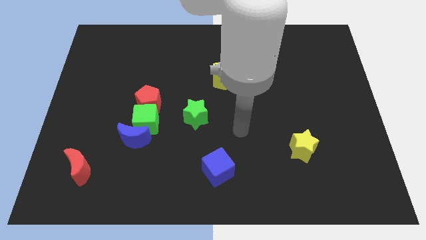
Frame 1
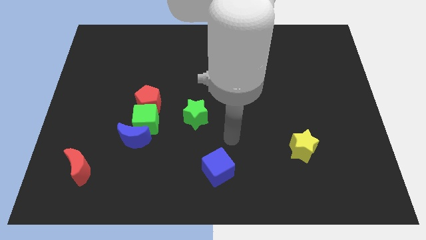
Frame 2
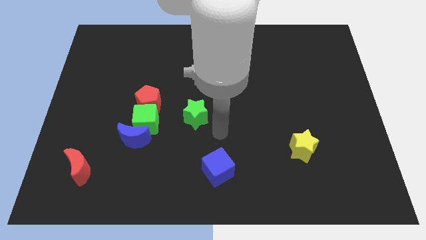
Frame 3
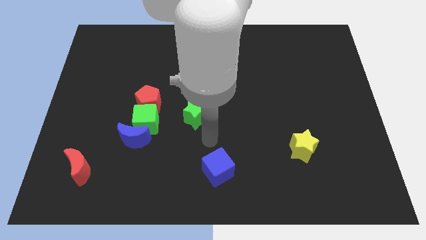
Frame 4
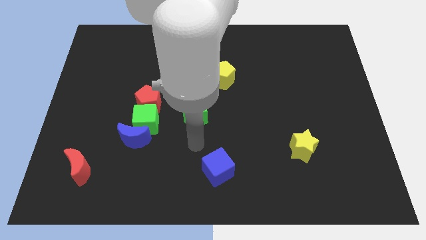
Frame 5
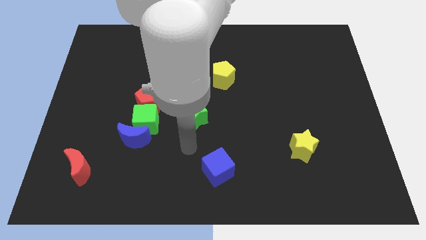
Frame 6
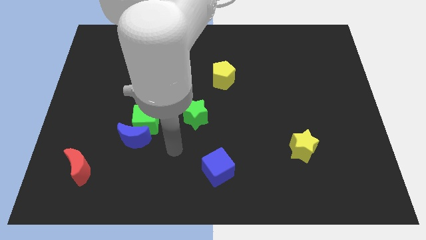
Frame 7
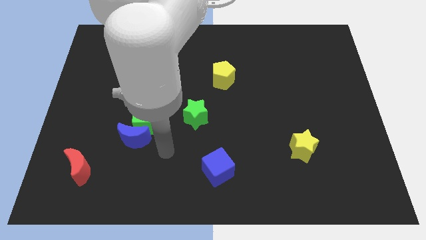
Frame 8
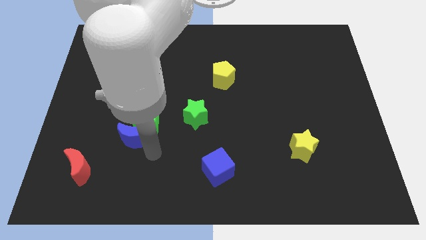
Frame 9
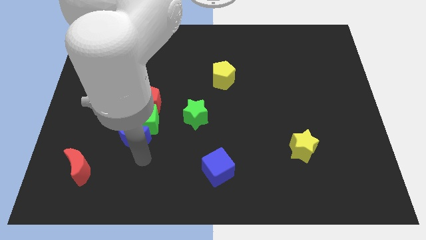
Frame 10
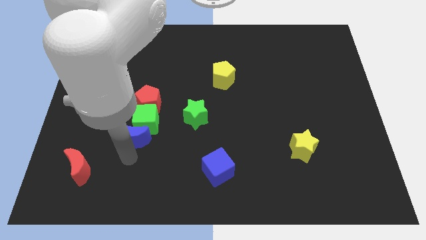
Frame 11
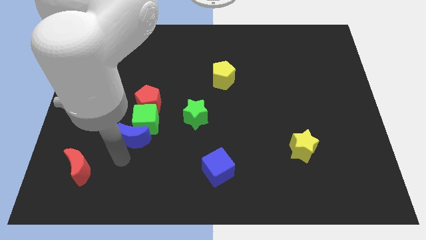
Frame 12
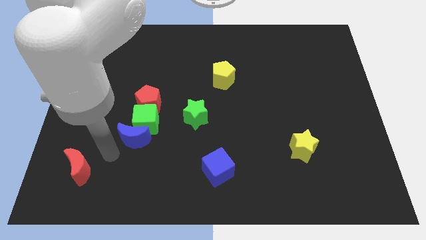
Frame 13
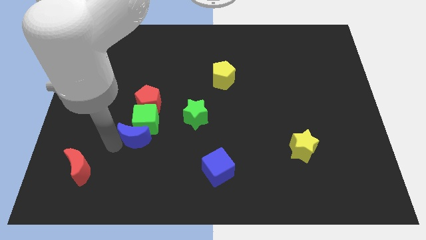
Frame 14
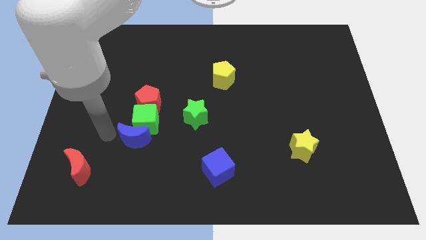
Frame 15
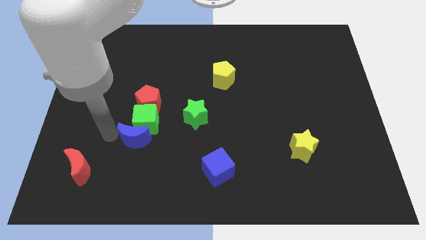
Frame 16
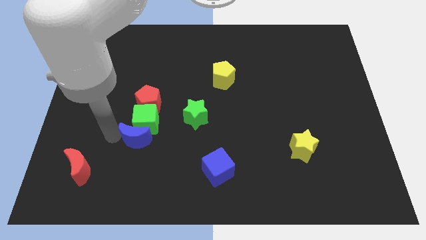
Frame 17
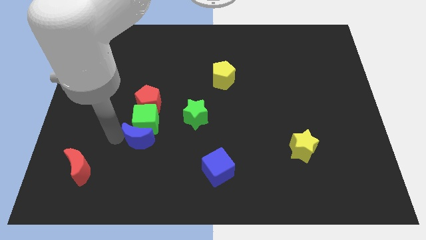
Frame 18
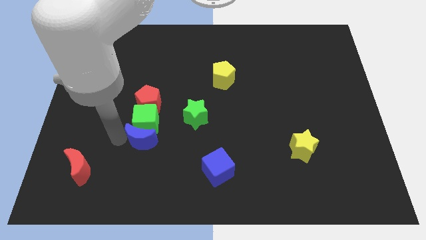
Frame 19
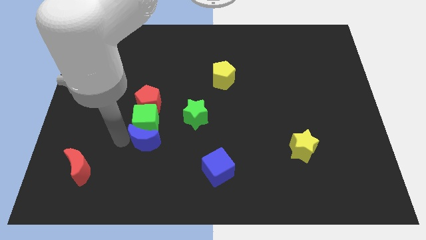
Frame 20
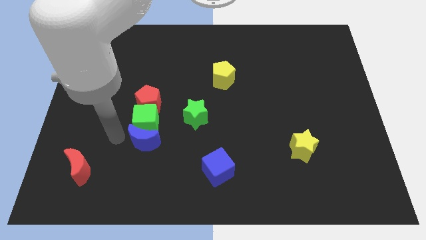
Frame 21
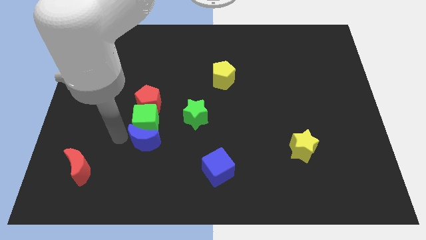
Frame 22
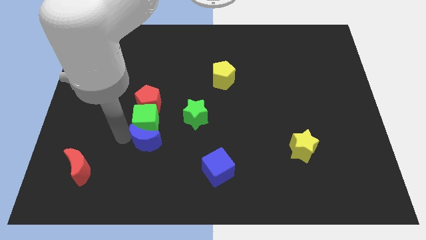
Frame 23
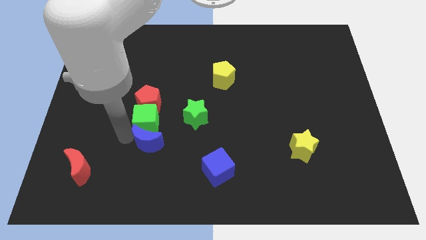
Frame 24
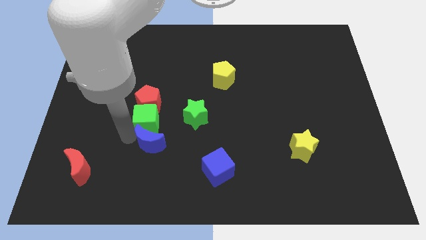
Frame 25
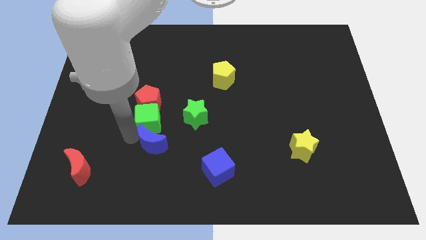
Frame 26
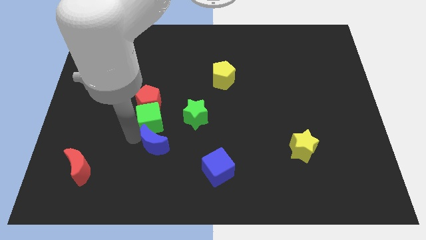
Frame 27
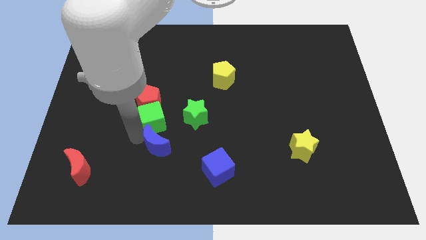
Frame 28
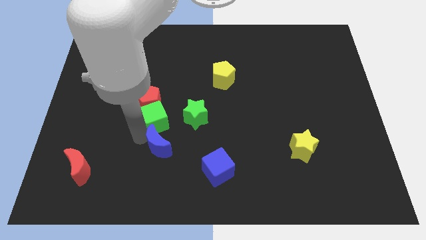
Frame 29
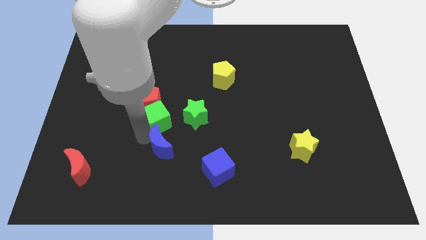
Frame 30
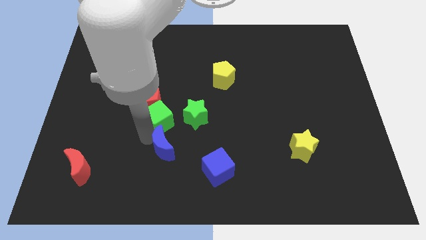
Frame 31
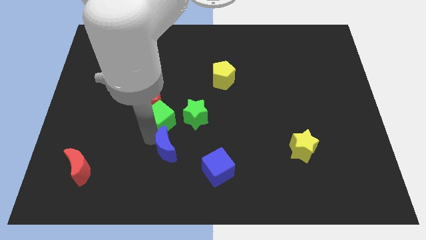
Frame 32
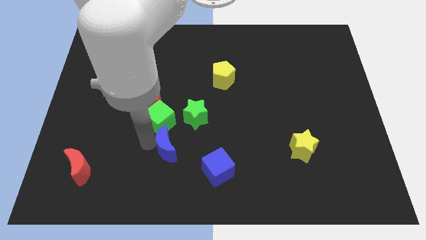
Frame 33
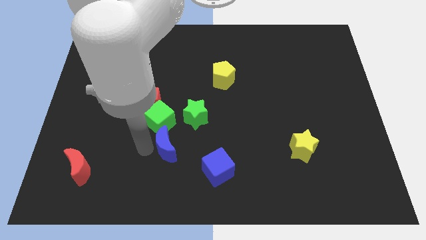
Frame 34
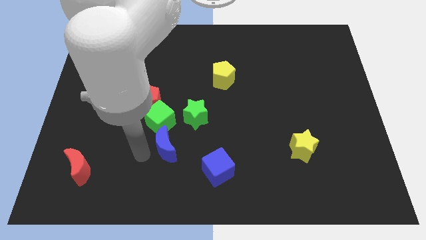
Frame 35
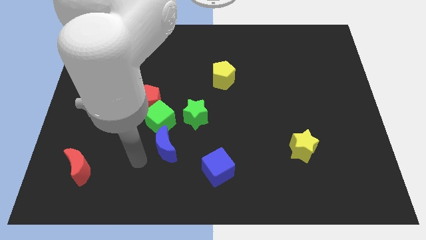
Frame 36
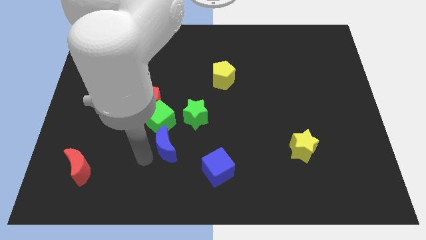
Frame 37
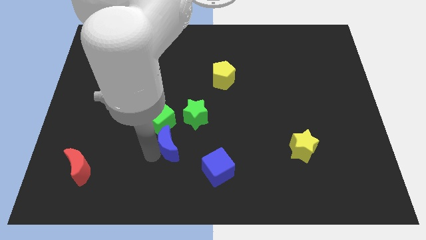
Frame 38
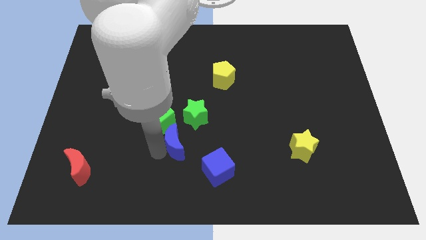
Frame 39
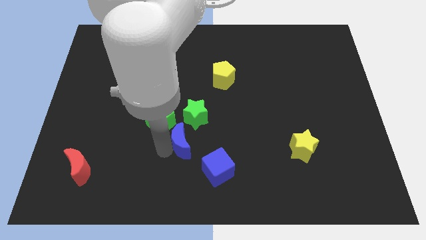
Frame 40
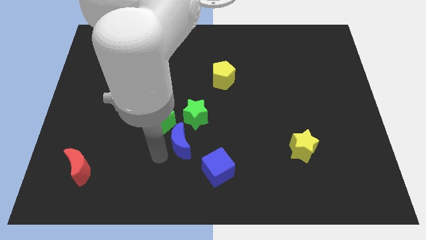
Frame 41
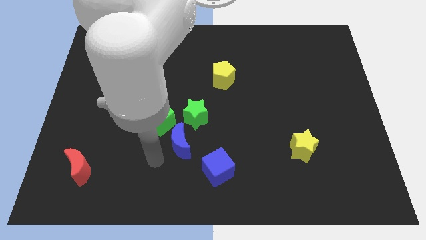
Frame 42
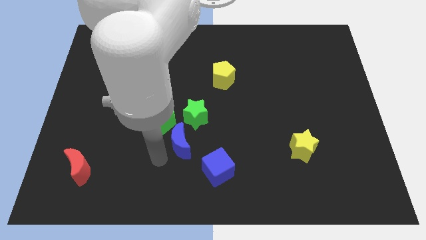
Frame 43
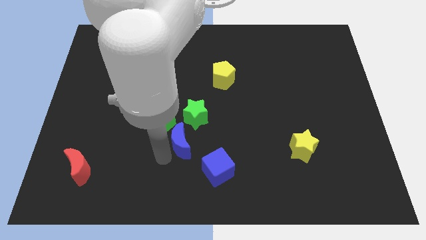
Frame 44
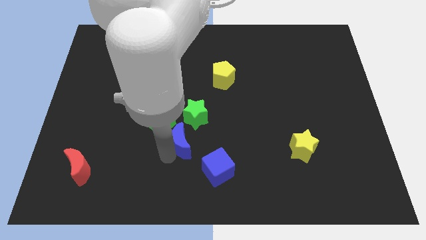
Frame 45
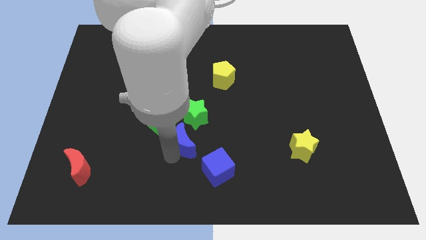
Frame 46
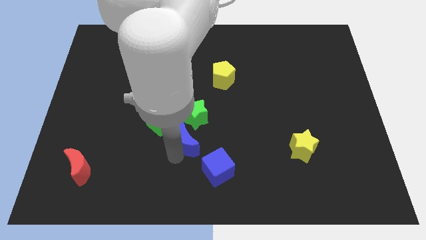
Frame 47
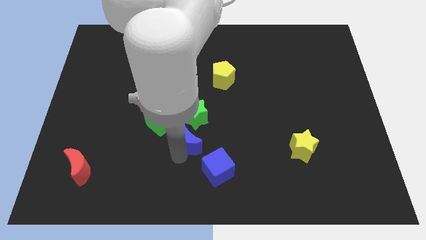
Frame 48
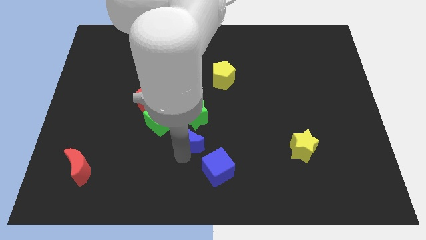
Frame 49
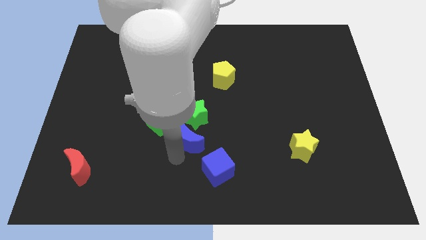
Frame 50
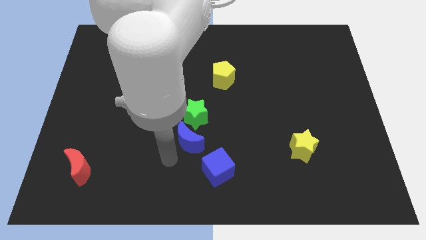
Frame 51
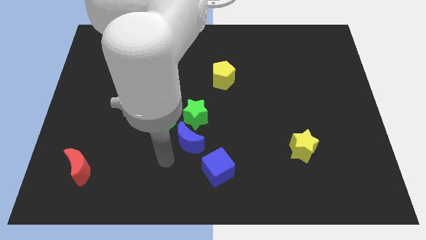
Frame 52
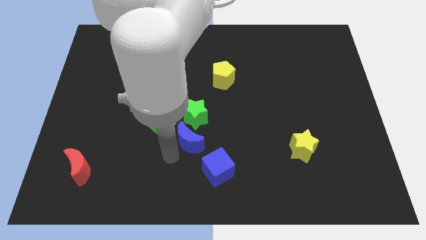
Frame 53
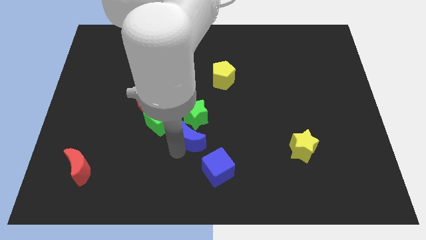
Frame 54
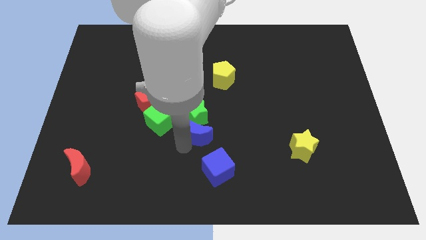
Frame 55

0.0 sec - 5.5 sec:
push the blue moon somewhat up and to the right diagonally

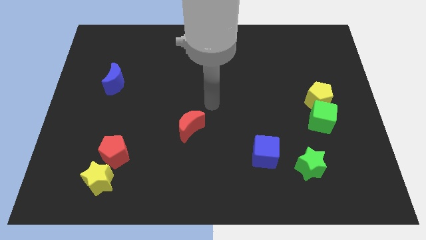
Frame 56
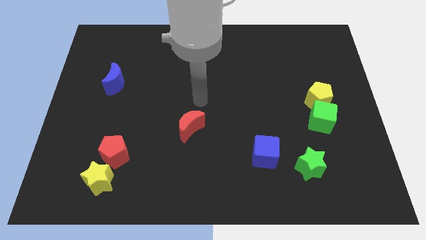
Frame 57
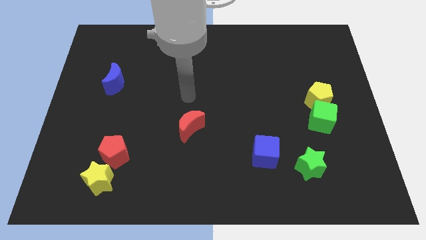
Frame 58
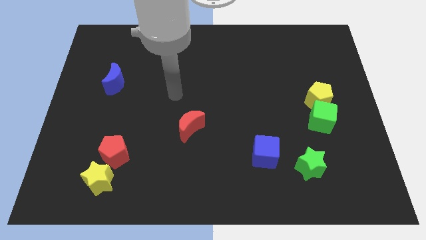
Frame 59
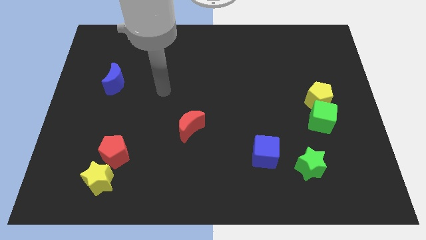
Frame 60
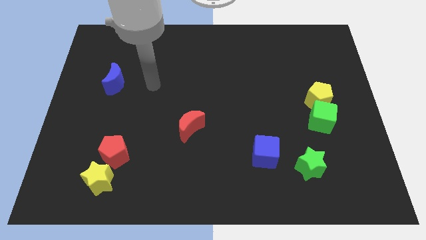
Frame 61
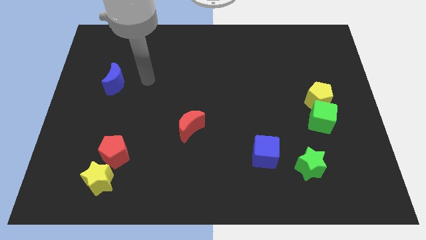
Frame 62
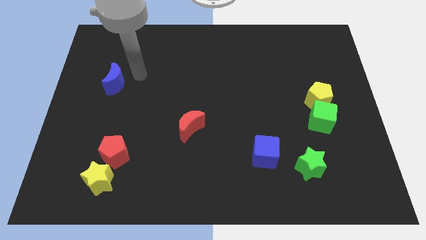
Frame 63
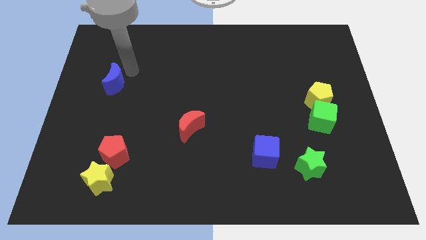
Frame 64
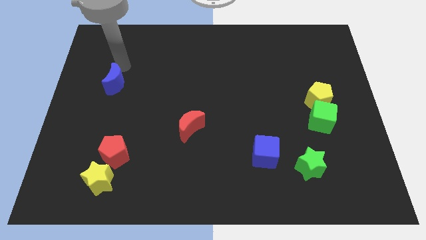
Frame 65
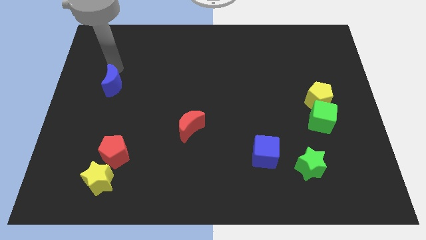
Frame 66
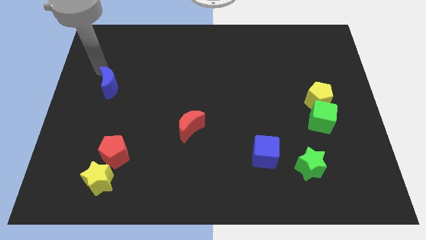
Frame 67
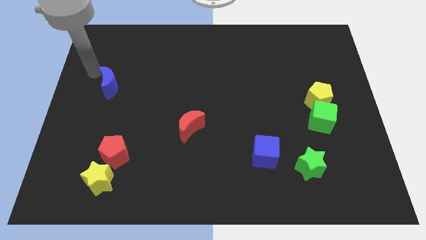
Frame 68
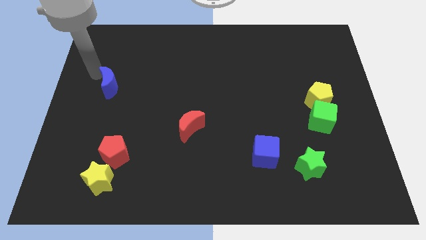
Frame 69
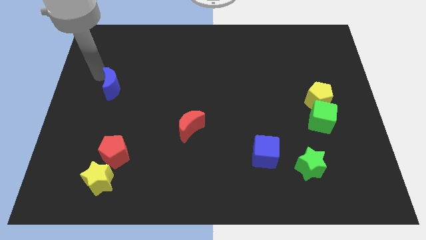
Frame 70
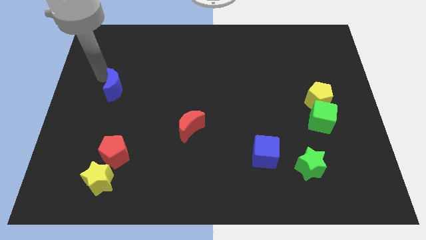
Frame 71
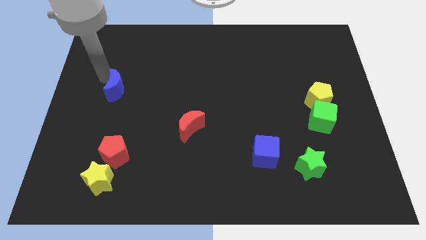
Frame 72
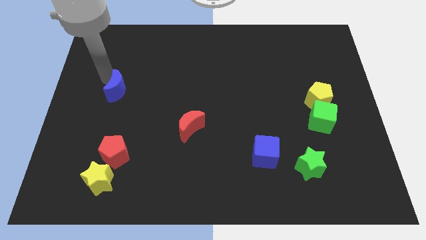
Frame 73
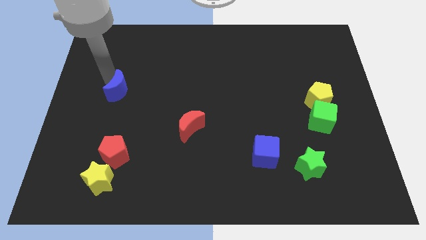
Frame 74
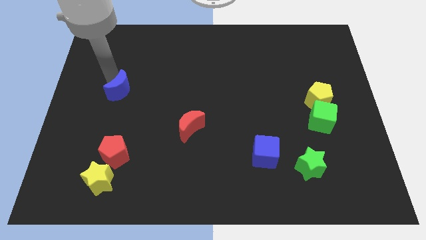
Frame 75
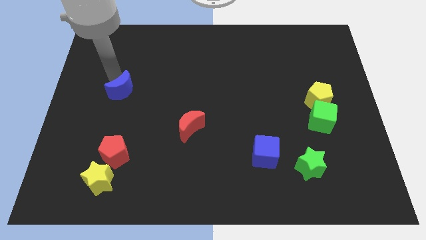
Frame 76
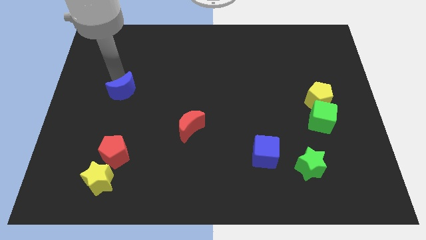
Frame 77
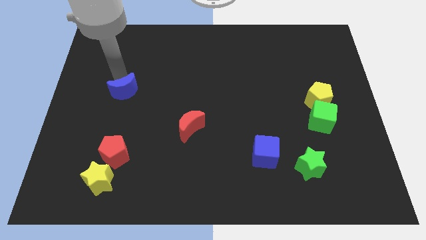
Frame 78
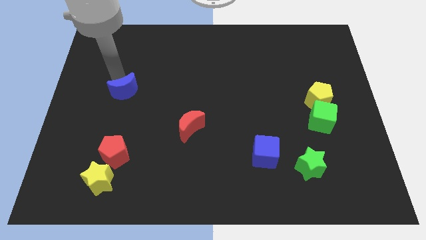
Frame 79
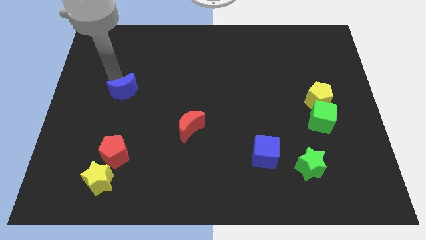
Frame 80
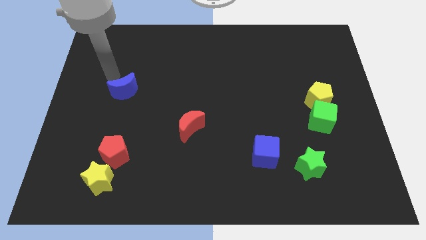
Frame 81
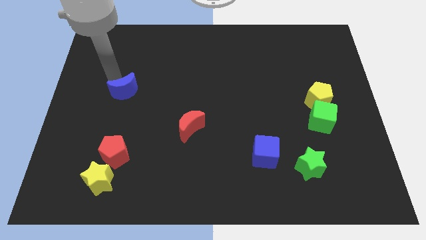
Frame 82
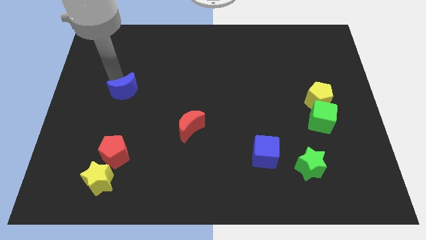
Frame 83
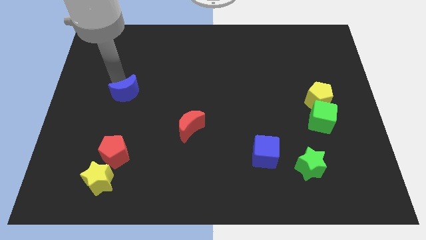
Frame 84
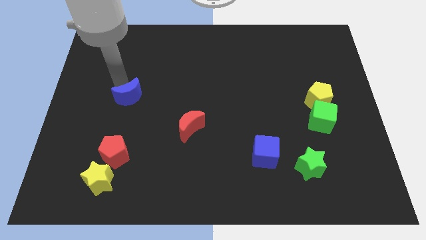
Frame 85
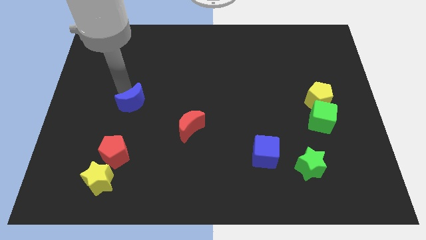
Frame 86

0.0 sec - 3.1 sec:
slide the blue moon down and then to the right somewhat
